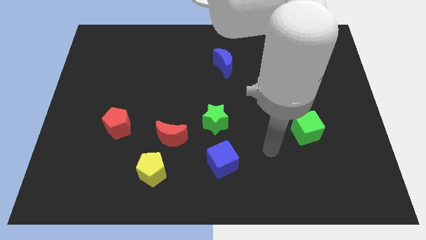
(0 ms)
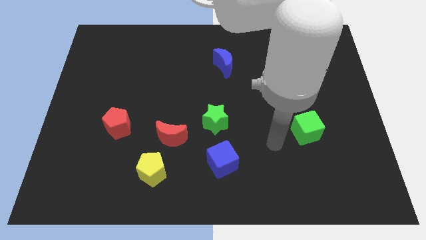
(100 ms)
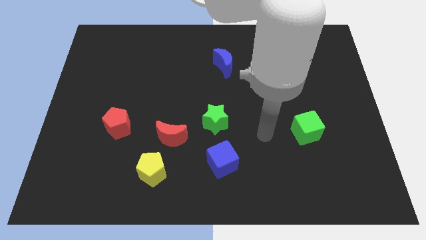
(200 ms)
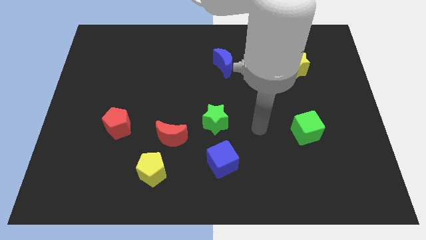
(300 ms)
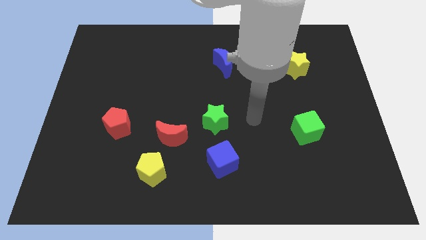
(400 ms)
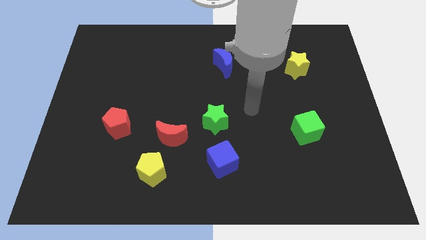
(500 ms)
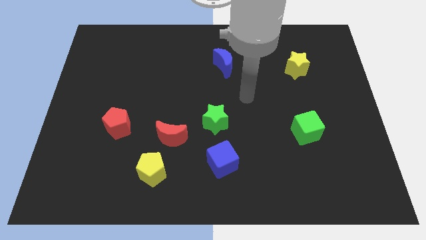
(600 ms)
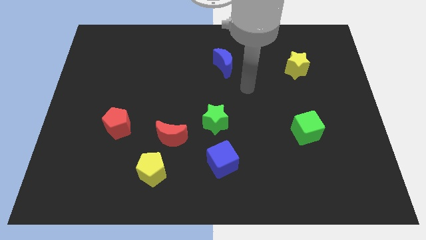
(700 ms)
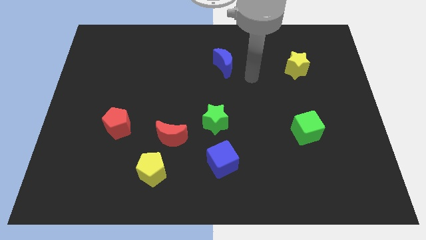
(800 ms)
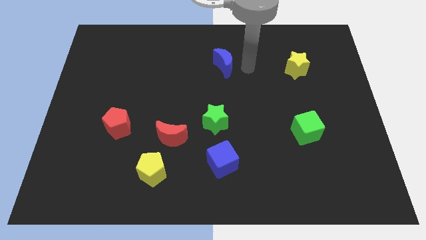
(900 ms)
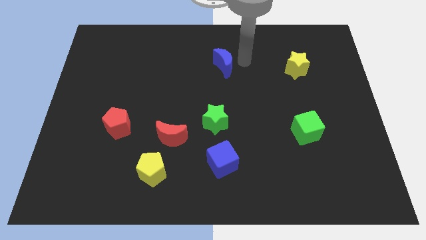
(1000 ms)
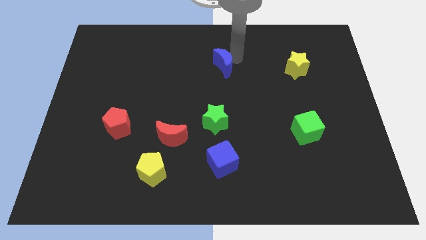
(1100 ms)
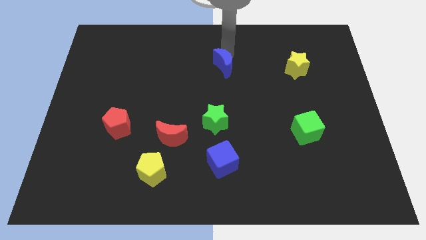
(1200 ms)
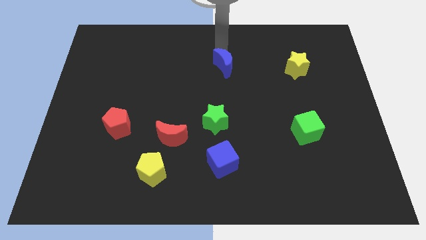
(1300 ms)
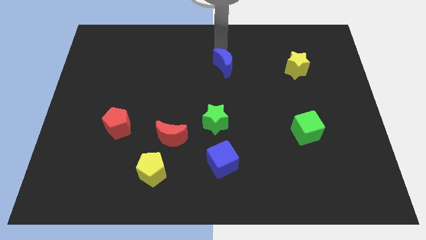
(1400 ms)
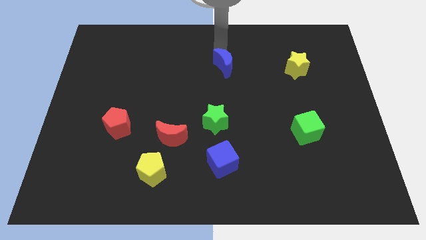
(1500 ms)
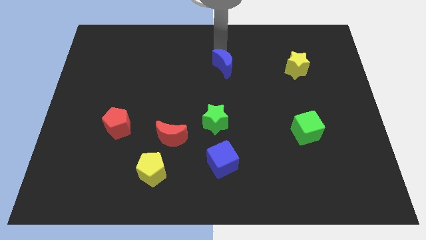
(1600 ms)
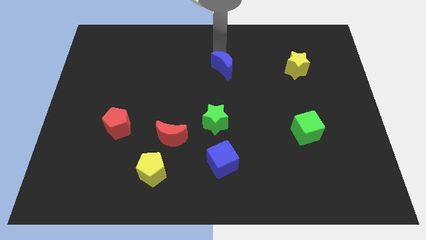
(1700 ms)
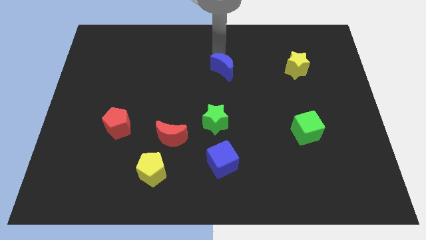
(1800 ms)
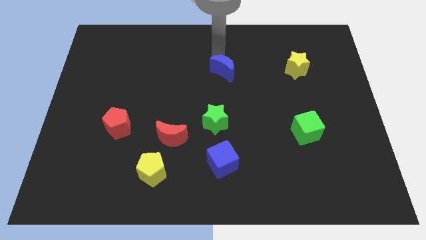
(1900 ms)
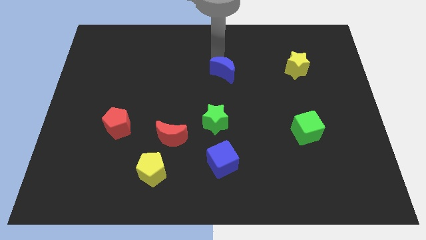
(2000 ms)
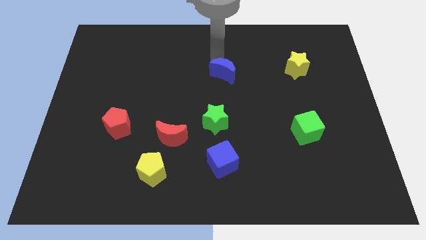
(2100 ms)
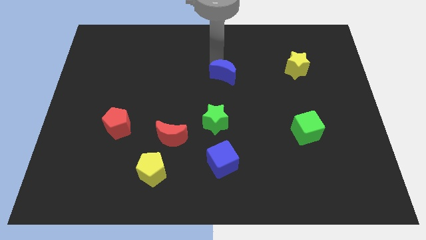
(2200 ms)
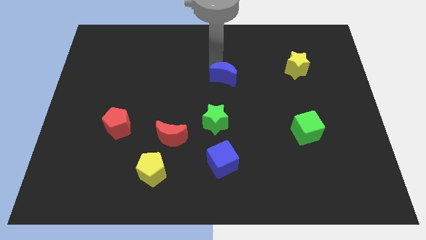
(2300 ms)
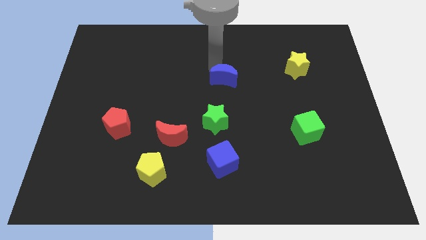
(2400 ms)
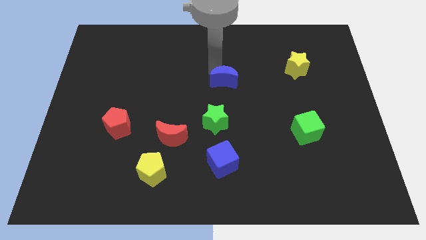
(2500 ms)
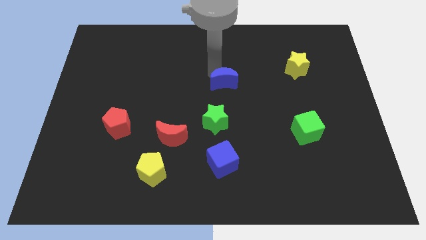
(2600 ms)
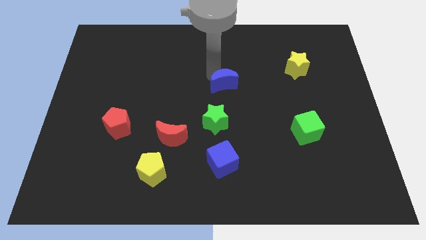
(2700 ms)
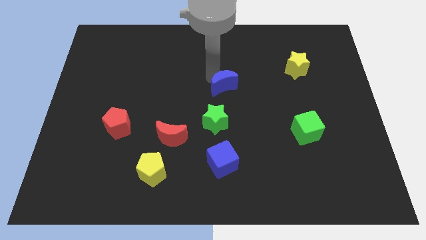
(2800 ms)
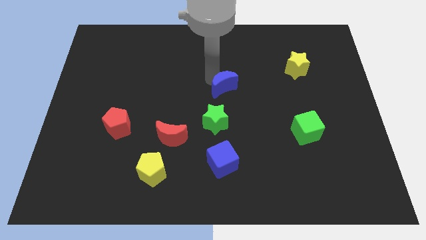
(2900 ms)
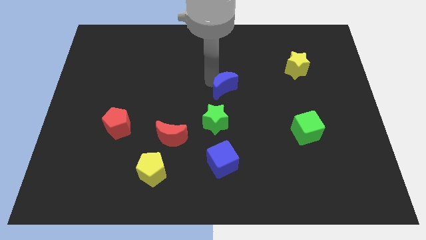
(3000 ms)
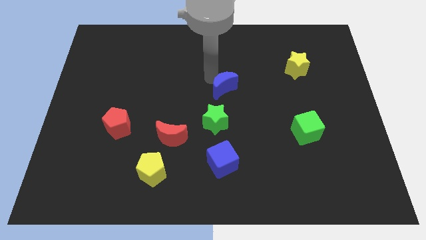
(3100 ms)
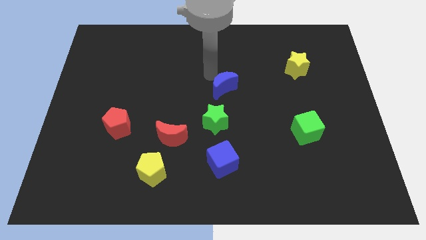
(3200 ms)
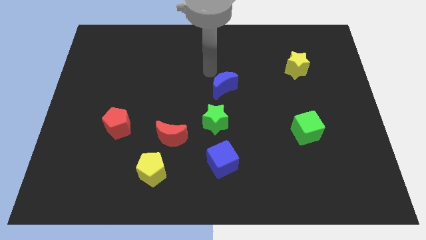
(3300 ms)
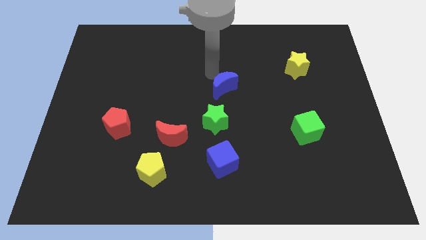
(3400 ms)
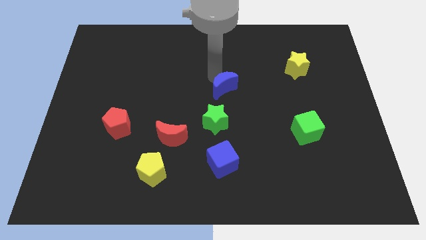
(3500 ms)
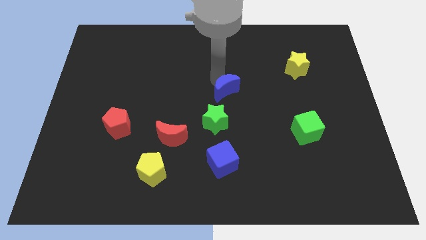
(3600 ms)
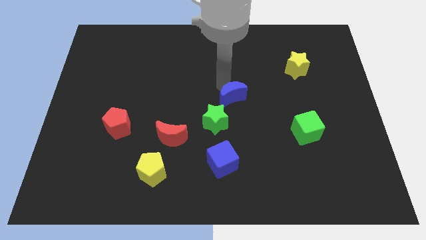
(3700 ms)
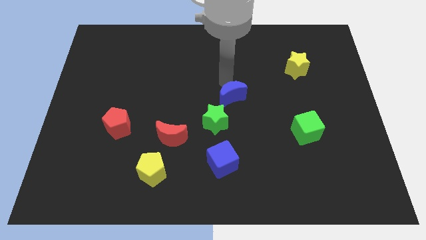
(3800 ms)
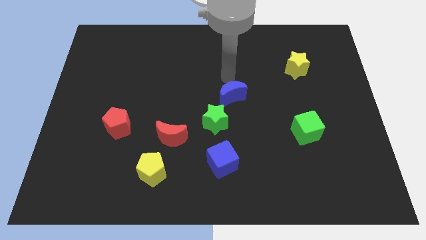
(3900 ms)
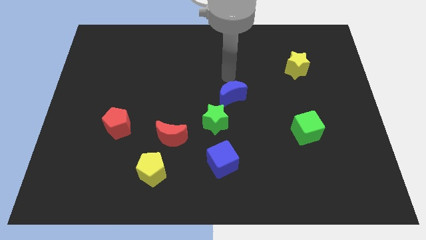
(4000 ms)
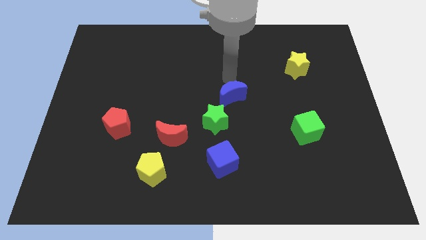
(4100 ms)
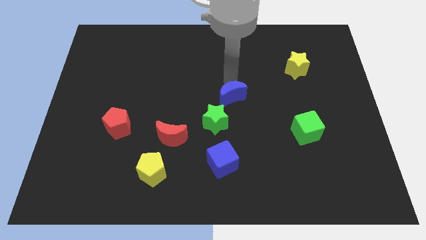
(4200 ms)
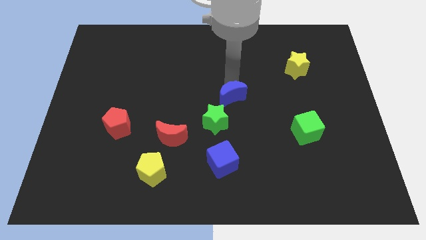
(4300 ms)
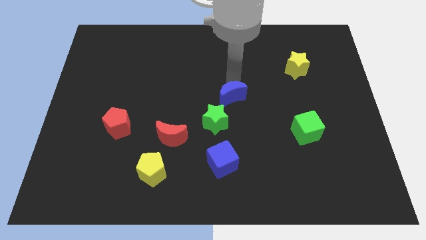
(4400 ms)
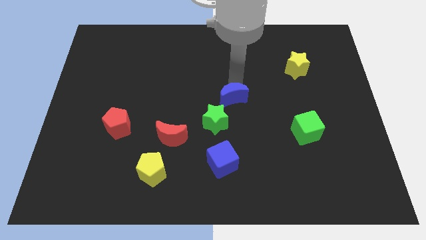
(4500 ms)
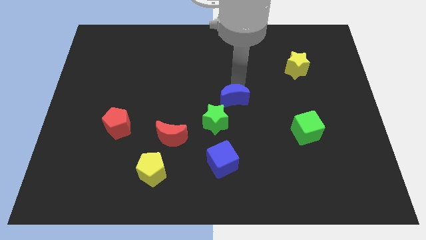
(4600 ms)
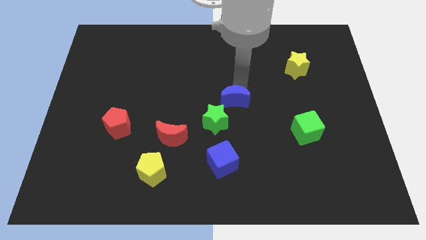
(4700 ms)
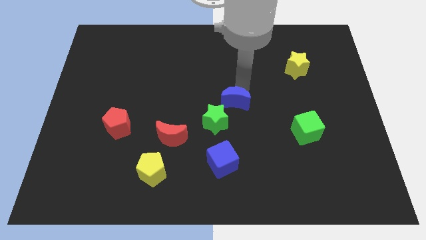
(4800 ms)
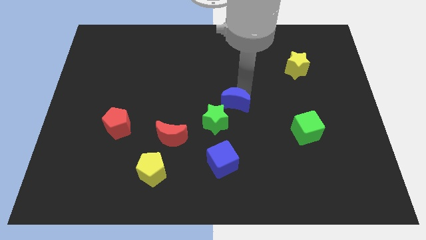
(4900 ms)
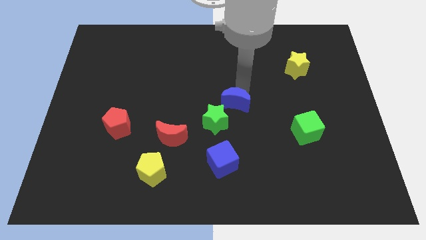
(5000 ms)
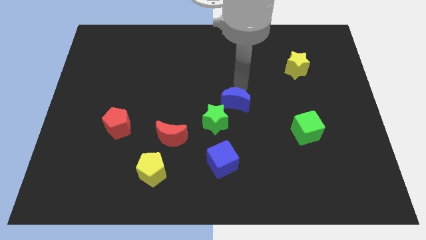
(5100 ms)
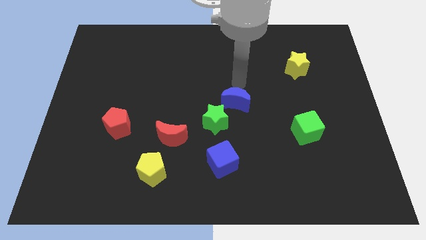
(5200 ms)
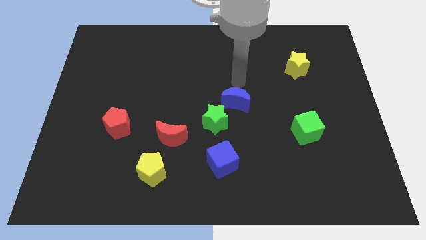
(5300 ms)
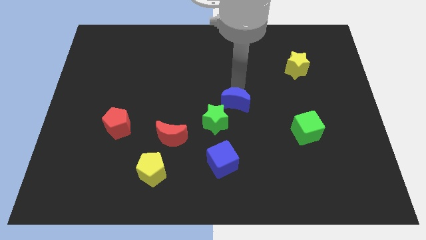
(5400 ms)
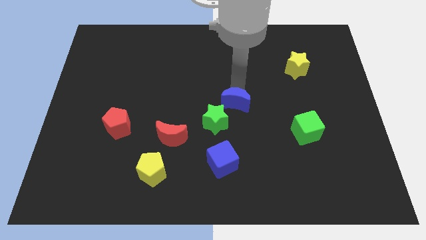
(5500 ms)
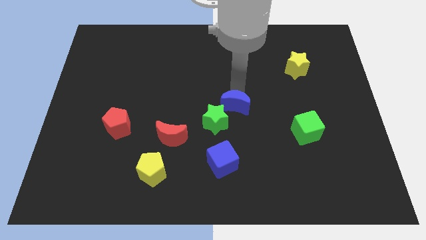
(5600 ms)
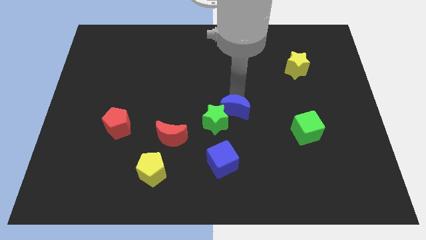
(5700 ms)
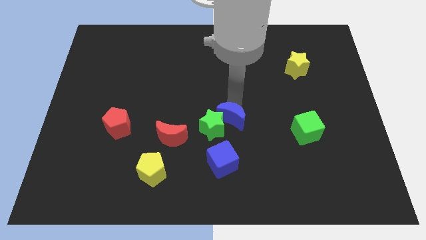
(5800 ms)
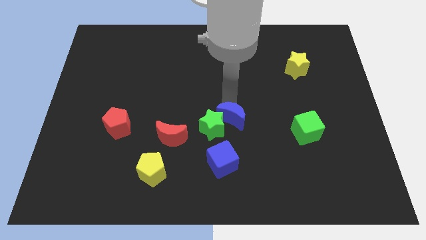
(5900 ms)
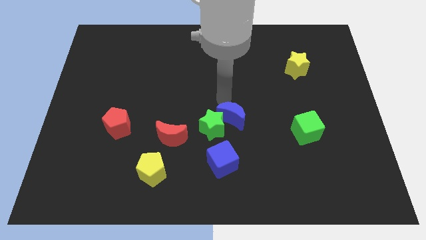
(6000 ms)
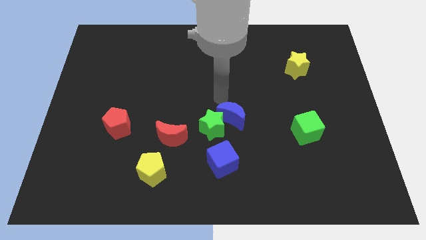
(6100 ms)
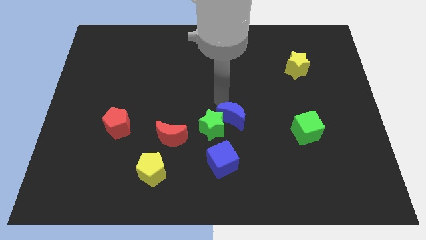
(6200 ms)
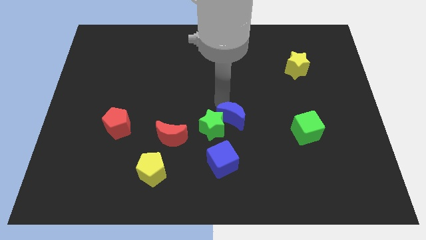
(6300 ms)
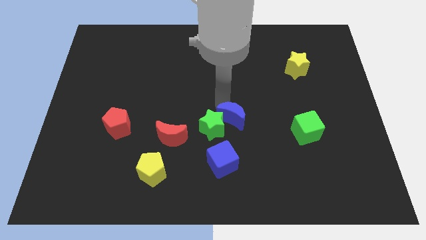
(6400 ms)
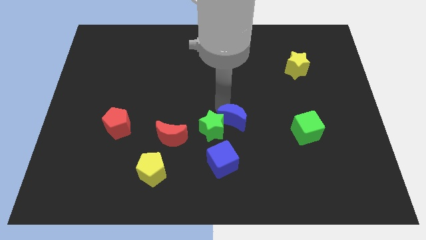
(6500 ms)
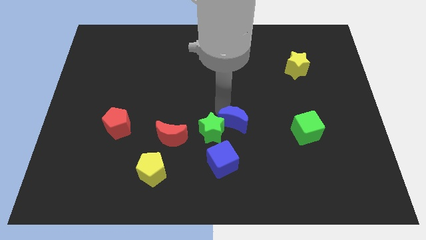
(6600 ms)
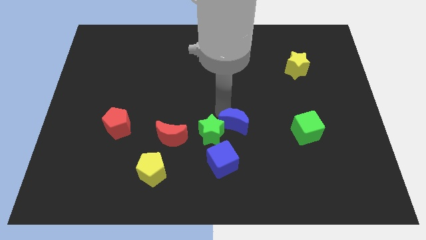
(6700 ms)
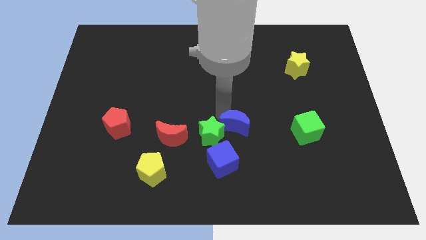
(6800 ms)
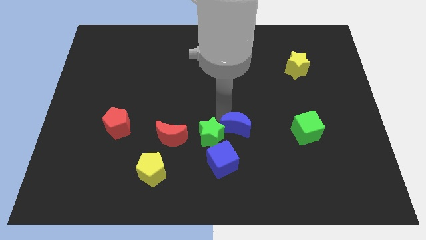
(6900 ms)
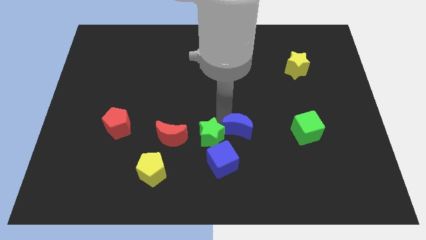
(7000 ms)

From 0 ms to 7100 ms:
slide the blue moon downwards

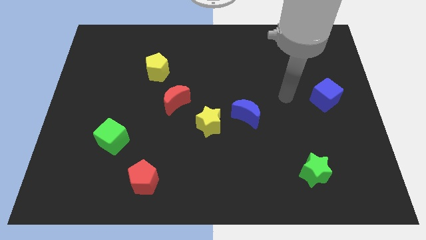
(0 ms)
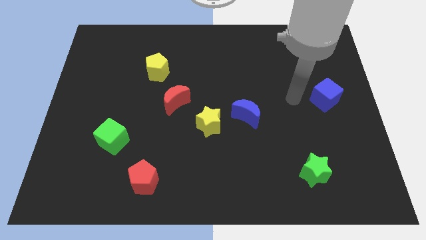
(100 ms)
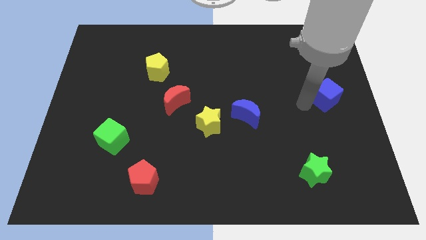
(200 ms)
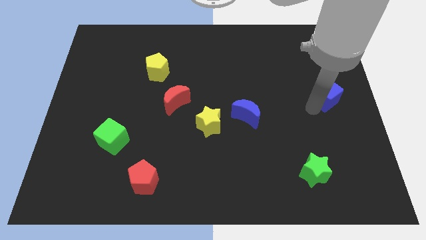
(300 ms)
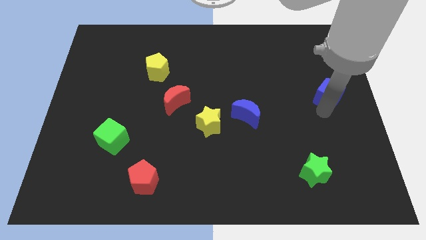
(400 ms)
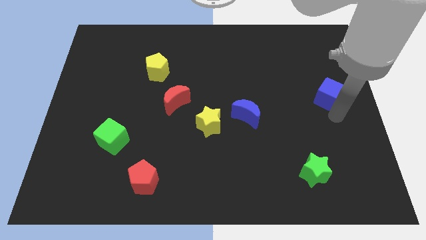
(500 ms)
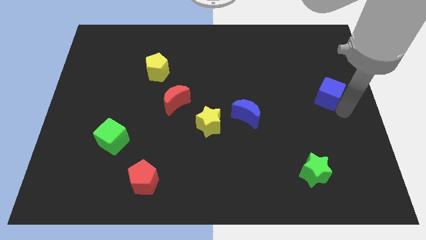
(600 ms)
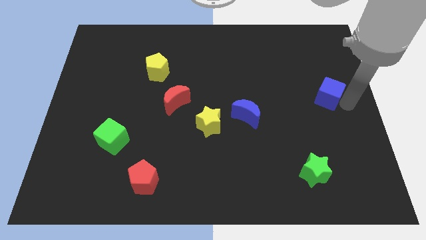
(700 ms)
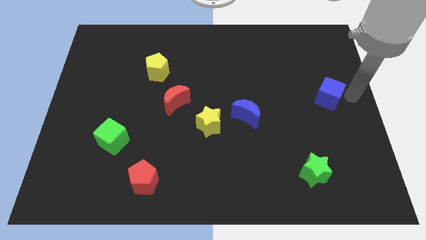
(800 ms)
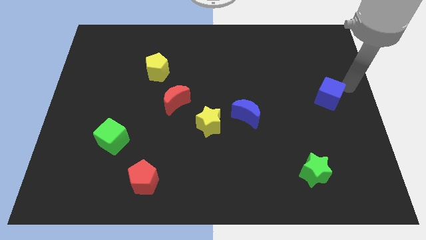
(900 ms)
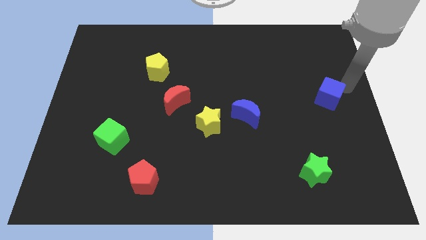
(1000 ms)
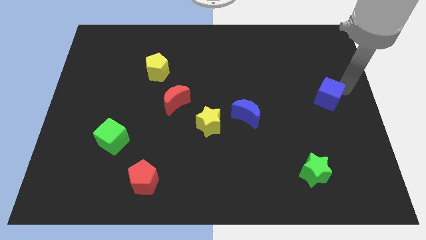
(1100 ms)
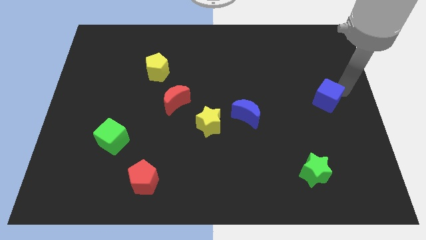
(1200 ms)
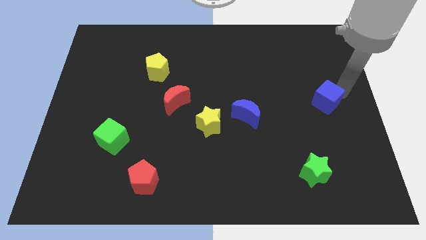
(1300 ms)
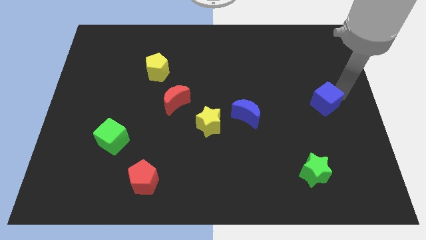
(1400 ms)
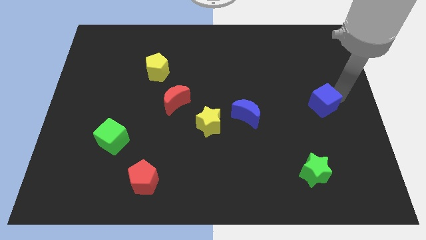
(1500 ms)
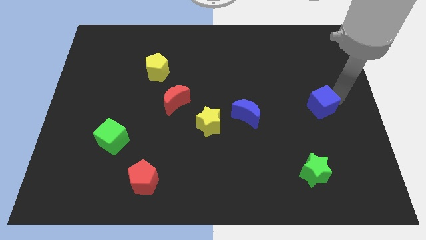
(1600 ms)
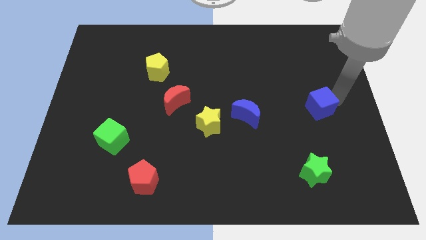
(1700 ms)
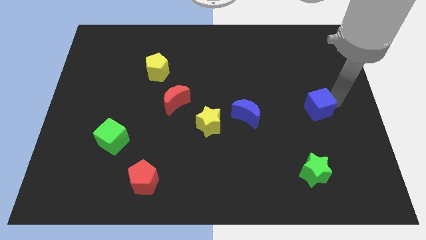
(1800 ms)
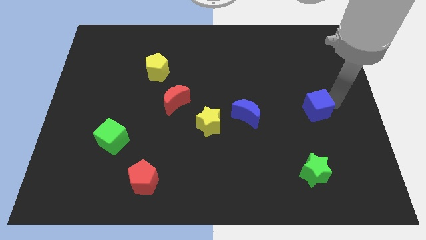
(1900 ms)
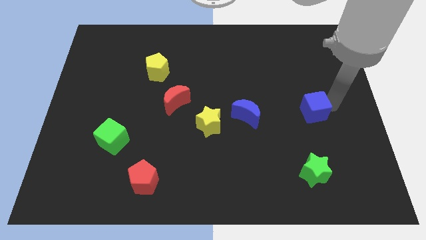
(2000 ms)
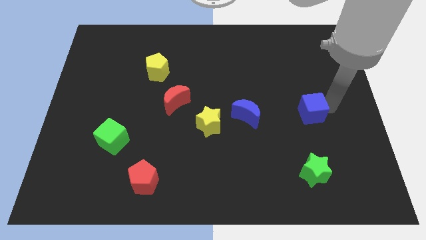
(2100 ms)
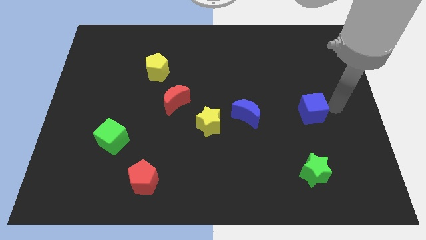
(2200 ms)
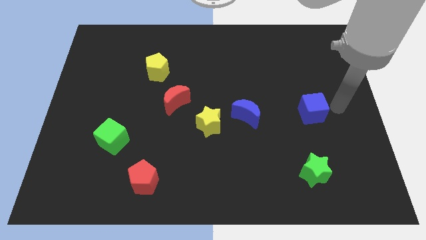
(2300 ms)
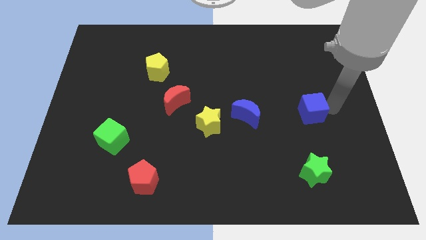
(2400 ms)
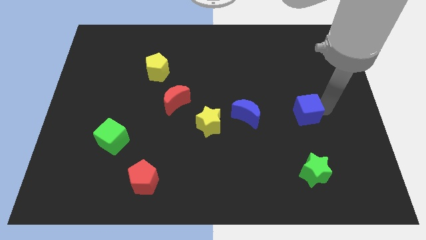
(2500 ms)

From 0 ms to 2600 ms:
slightly slide the blue cube down and then left
